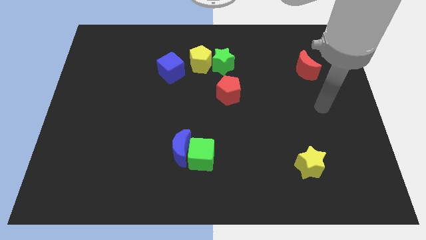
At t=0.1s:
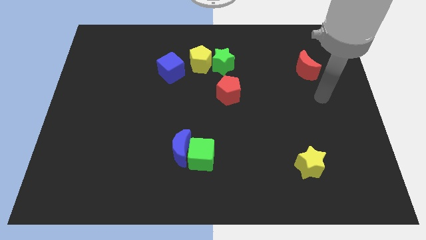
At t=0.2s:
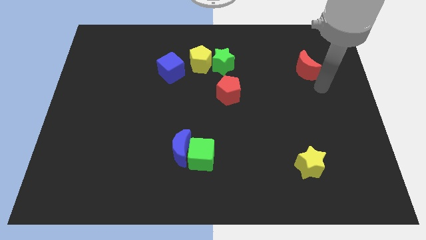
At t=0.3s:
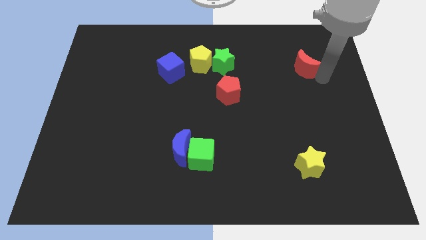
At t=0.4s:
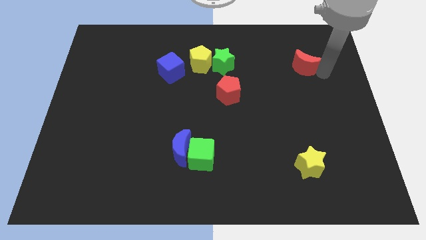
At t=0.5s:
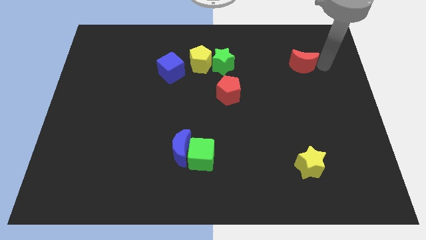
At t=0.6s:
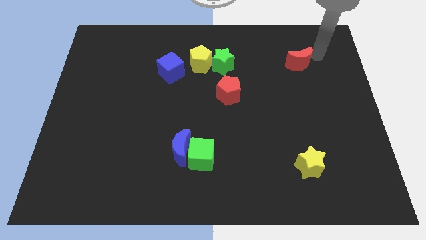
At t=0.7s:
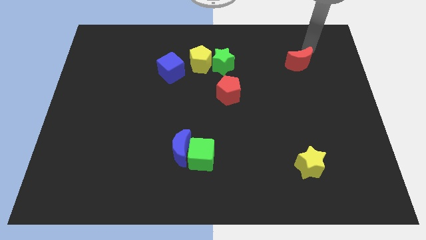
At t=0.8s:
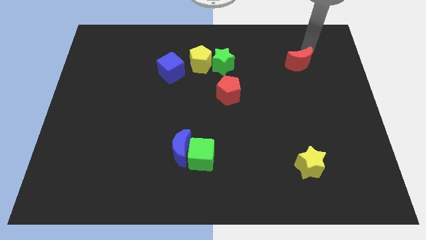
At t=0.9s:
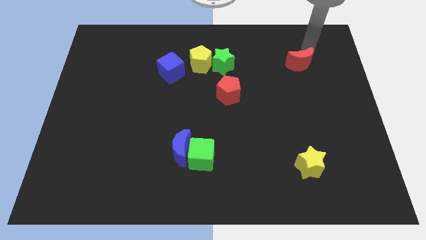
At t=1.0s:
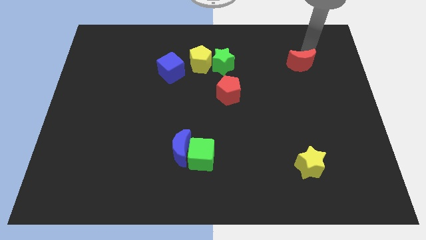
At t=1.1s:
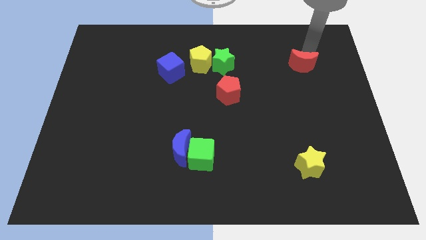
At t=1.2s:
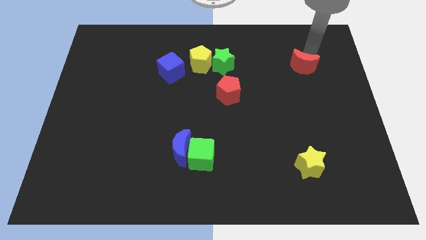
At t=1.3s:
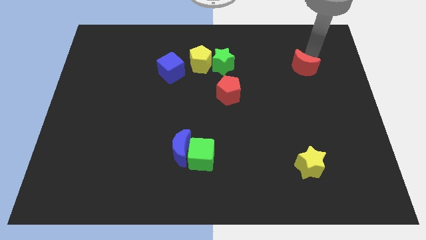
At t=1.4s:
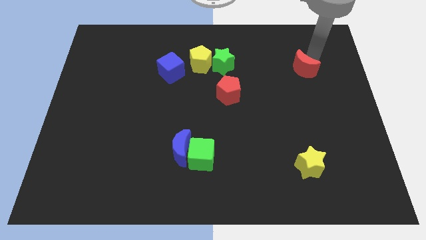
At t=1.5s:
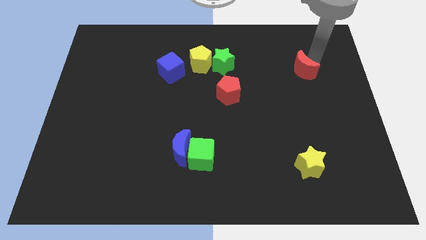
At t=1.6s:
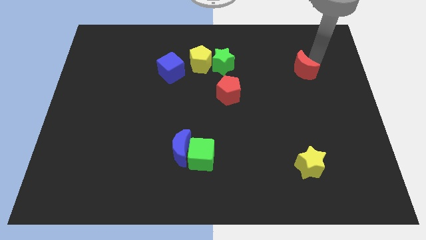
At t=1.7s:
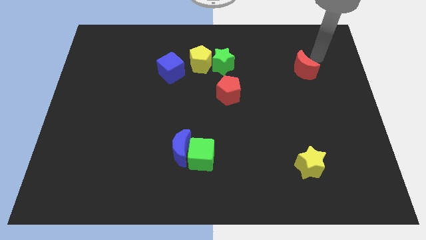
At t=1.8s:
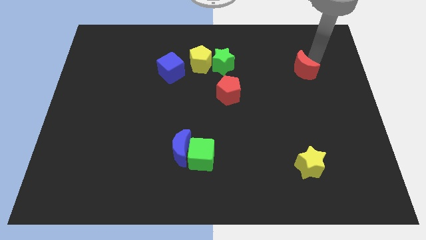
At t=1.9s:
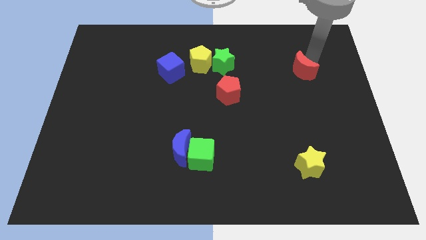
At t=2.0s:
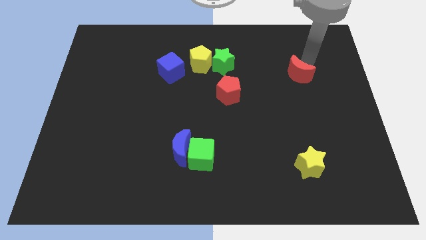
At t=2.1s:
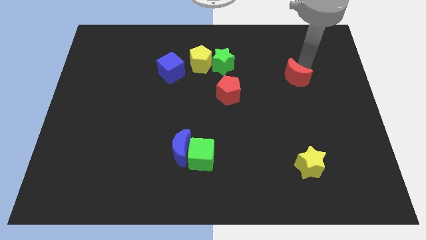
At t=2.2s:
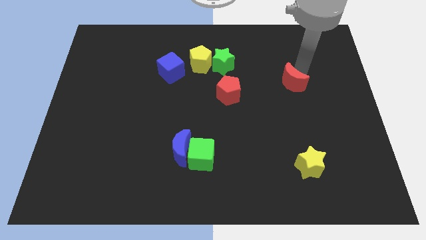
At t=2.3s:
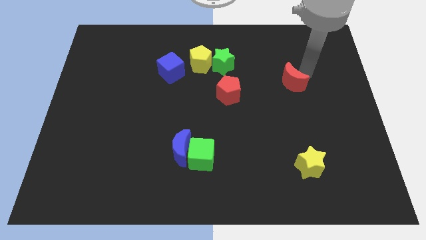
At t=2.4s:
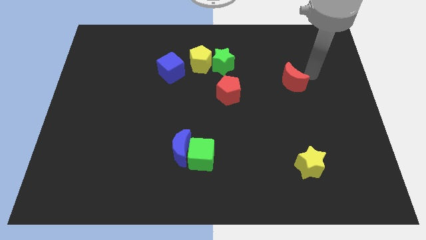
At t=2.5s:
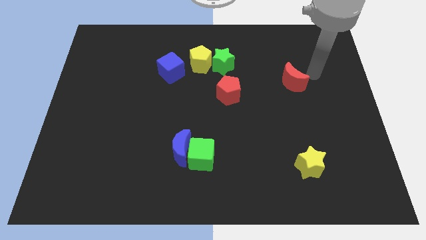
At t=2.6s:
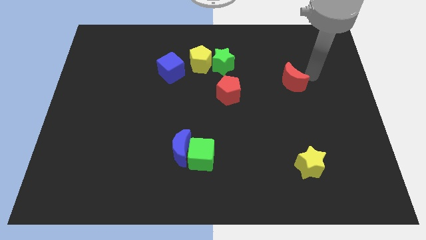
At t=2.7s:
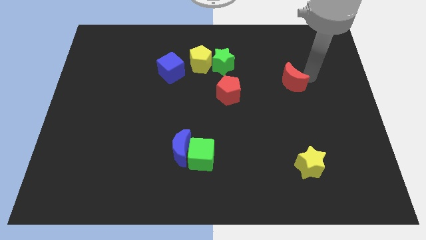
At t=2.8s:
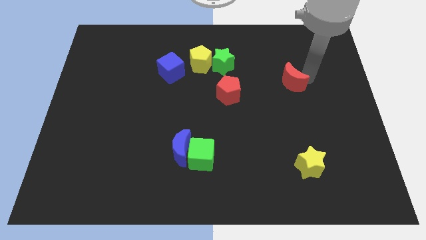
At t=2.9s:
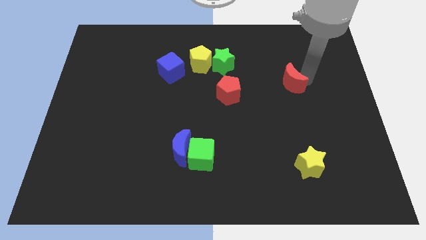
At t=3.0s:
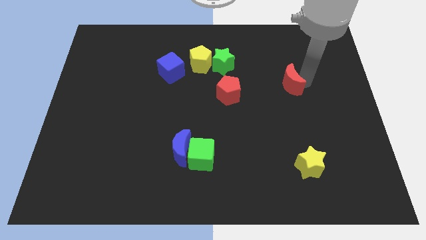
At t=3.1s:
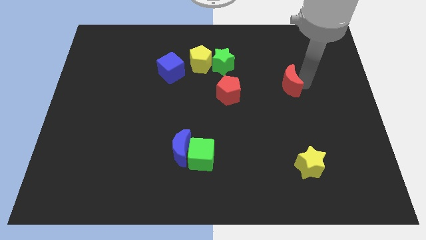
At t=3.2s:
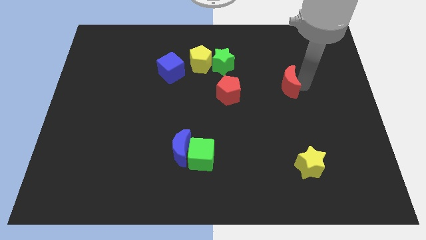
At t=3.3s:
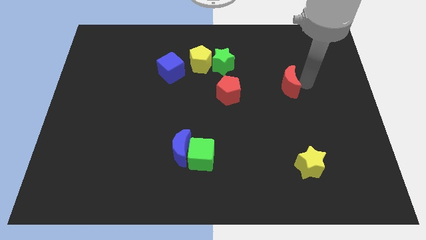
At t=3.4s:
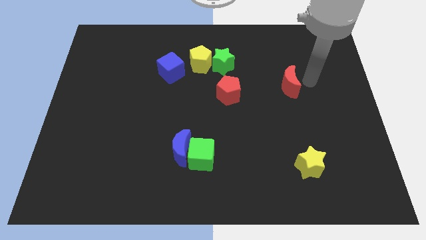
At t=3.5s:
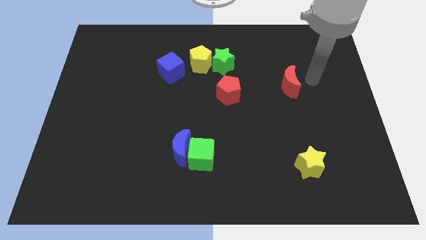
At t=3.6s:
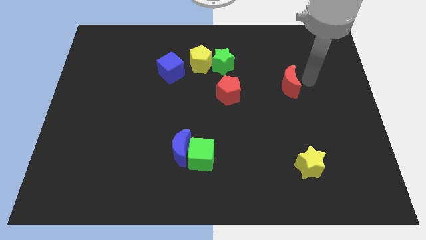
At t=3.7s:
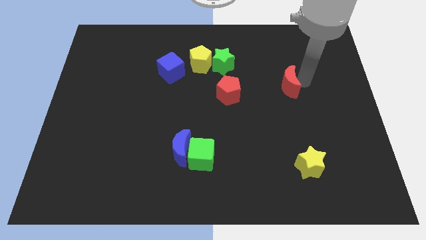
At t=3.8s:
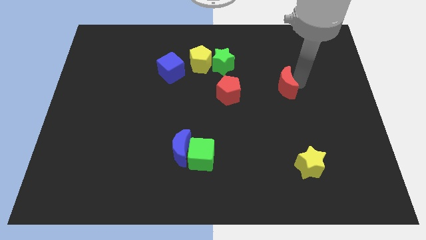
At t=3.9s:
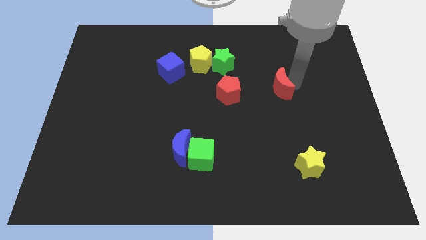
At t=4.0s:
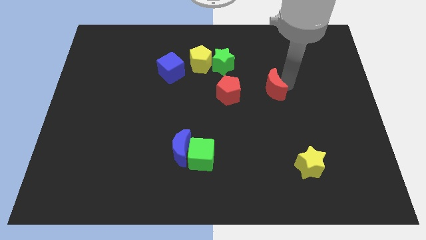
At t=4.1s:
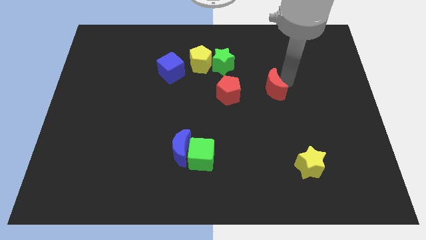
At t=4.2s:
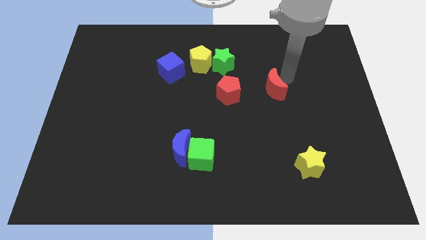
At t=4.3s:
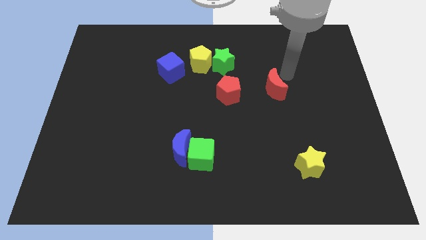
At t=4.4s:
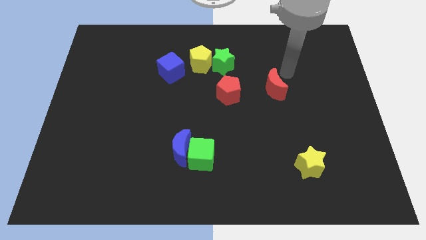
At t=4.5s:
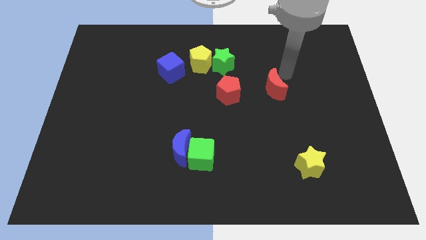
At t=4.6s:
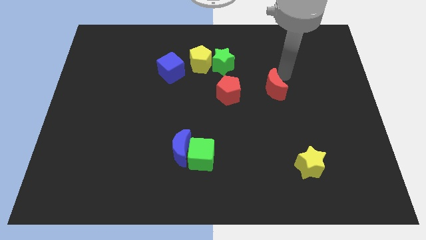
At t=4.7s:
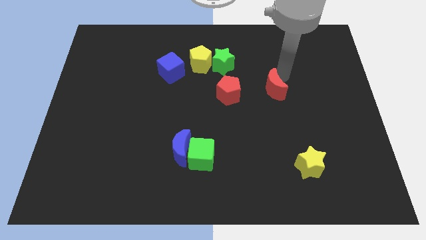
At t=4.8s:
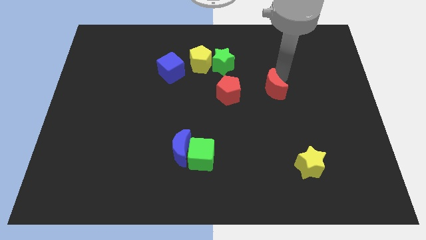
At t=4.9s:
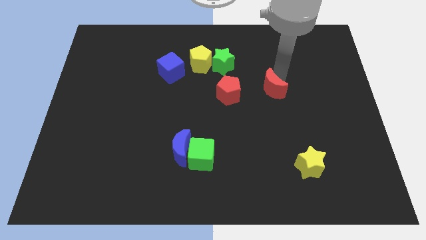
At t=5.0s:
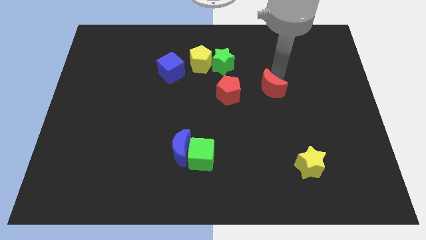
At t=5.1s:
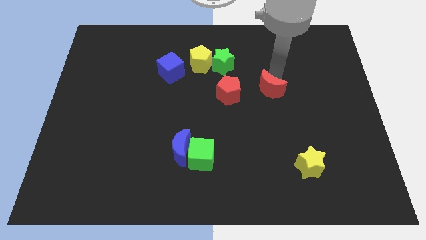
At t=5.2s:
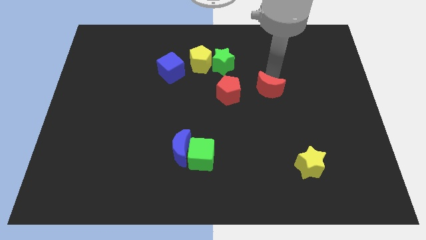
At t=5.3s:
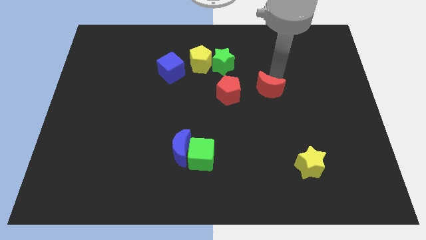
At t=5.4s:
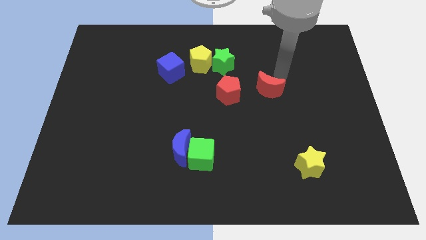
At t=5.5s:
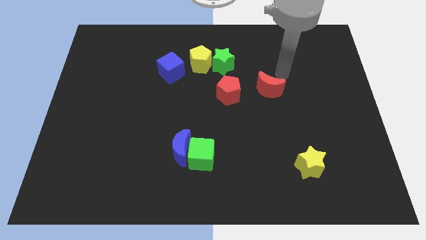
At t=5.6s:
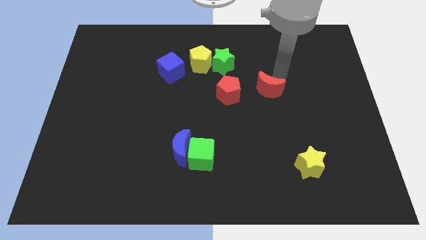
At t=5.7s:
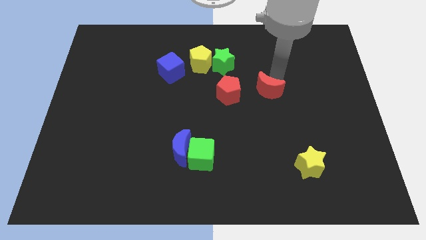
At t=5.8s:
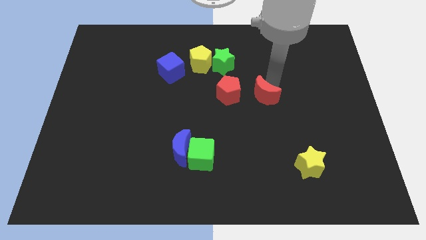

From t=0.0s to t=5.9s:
push the red moon to the middle

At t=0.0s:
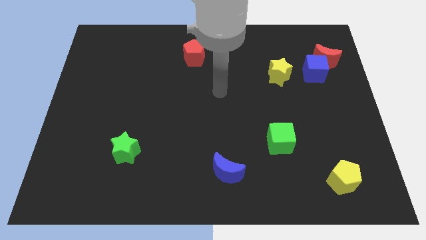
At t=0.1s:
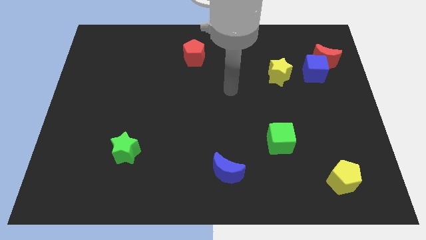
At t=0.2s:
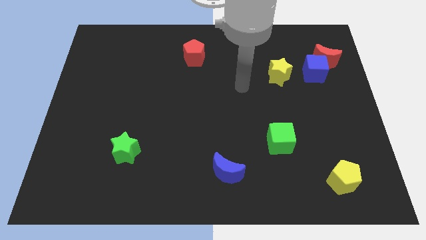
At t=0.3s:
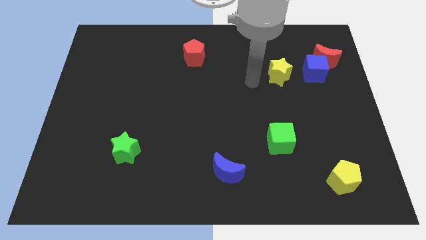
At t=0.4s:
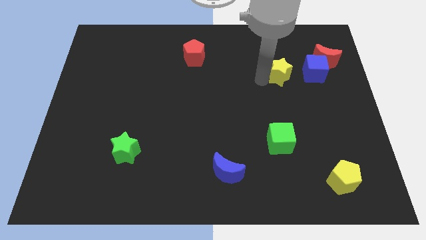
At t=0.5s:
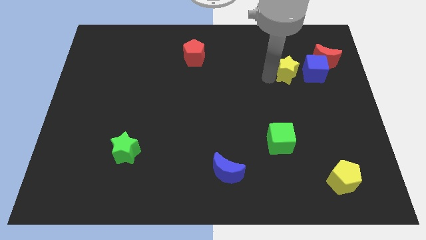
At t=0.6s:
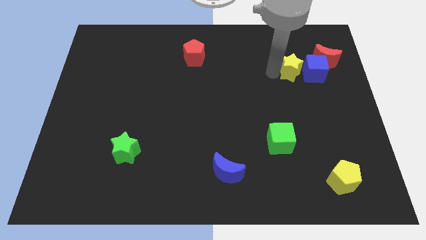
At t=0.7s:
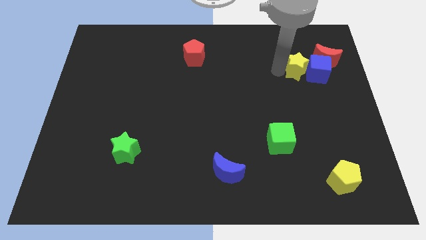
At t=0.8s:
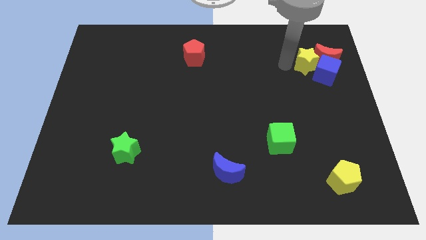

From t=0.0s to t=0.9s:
move the blue cube to the right side of the board

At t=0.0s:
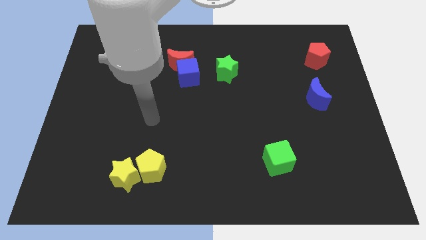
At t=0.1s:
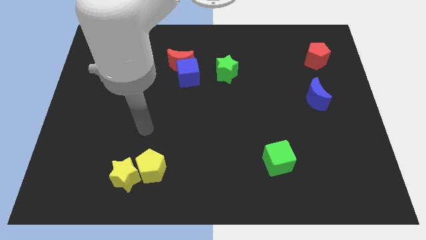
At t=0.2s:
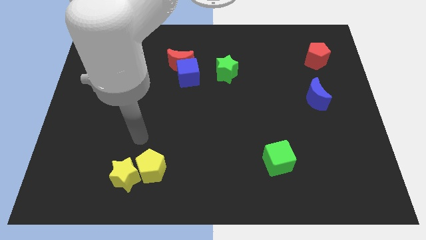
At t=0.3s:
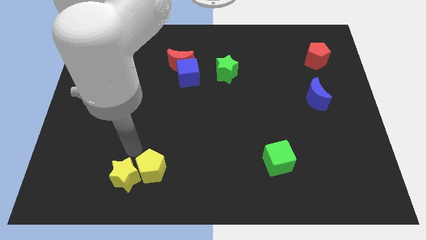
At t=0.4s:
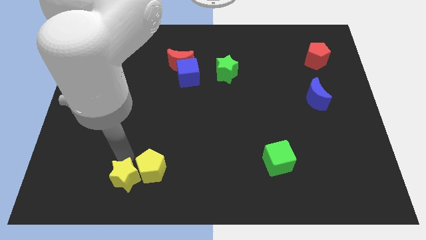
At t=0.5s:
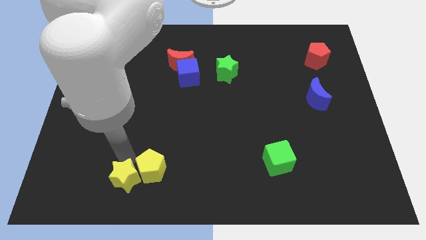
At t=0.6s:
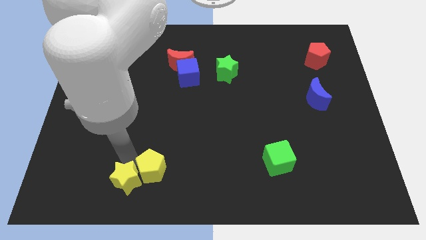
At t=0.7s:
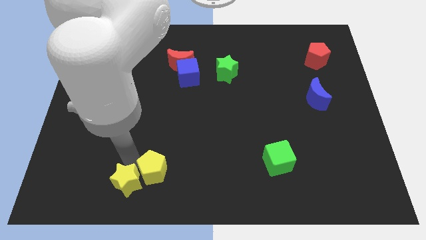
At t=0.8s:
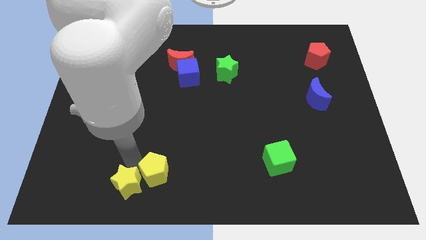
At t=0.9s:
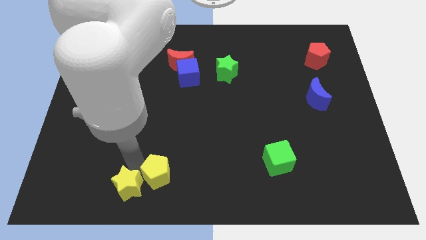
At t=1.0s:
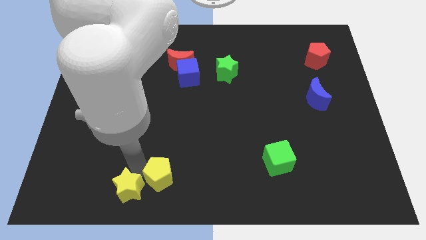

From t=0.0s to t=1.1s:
slide the yellow pentagon to the bottom
